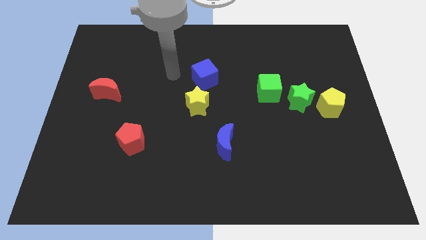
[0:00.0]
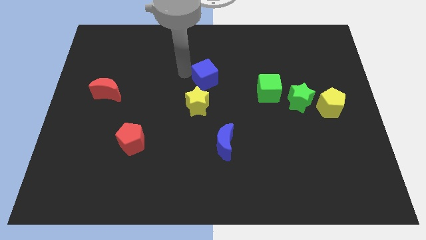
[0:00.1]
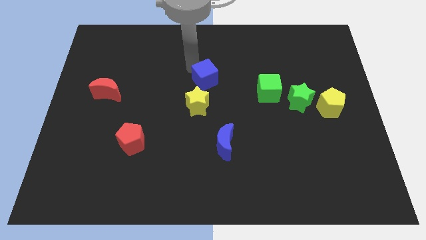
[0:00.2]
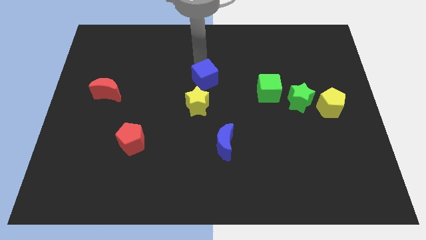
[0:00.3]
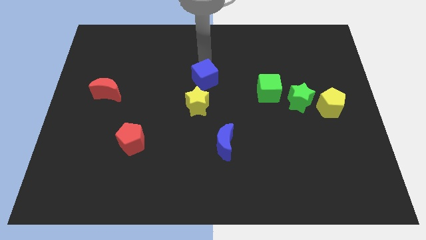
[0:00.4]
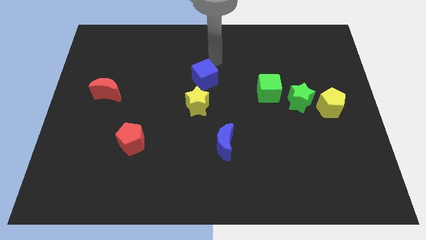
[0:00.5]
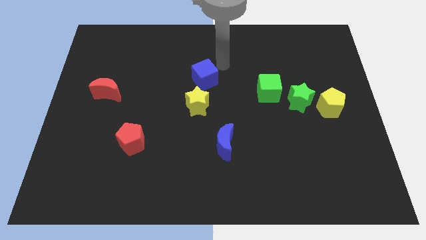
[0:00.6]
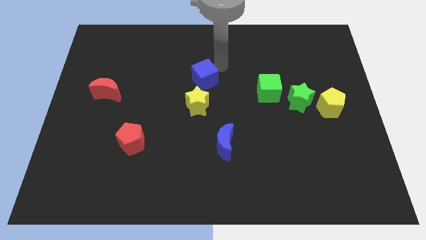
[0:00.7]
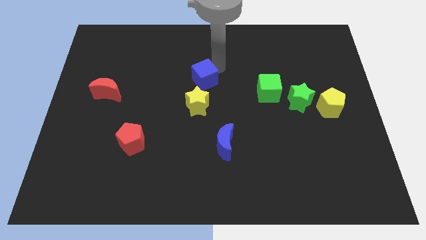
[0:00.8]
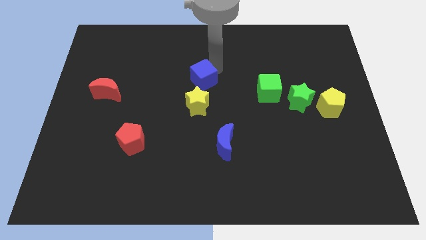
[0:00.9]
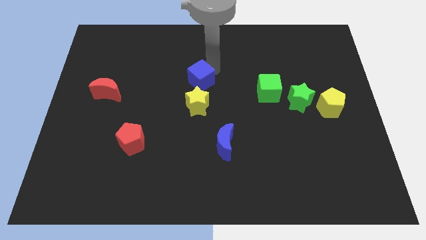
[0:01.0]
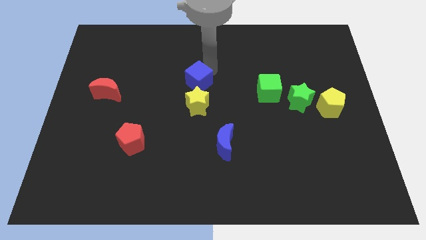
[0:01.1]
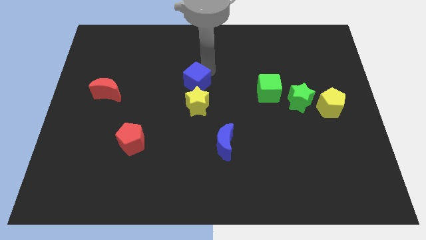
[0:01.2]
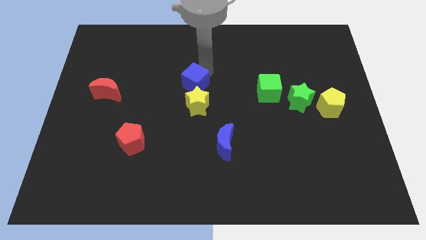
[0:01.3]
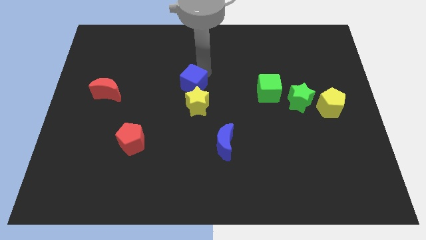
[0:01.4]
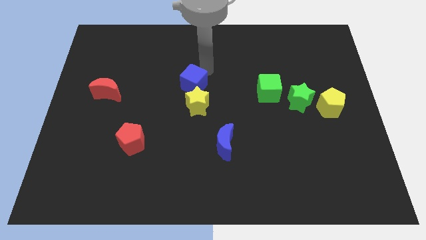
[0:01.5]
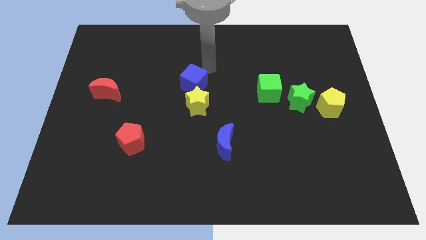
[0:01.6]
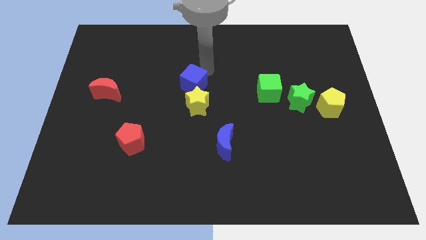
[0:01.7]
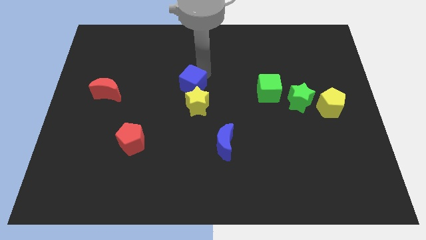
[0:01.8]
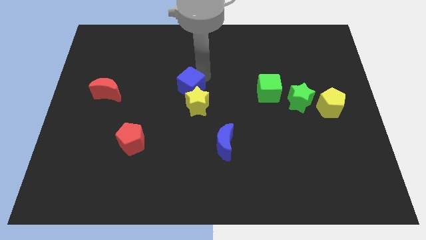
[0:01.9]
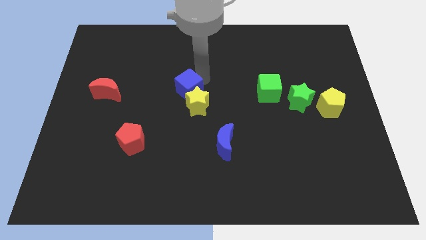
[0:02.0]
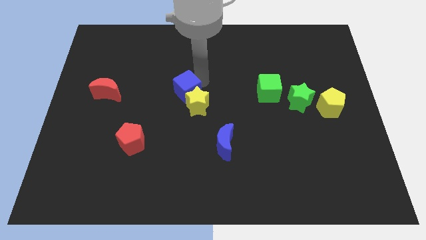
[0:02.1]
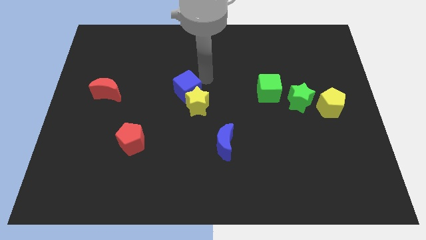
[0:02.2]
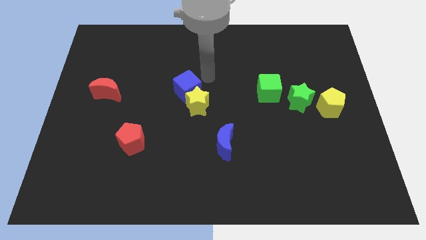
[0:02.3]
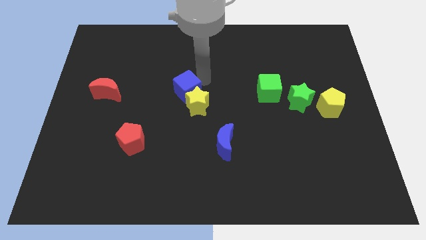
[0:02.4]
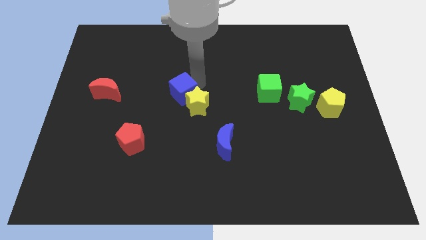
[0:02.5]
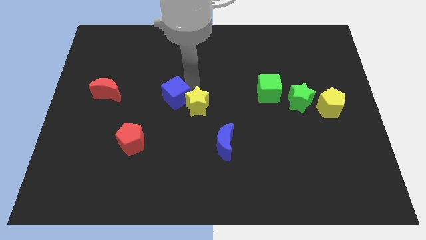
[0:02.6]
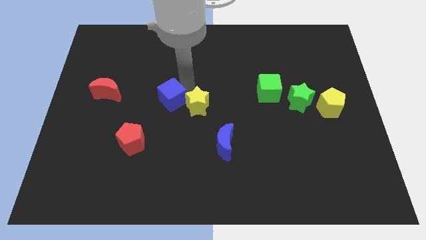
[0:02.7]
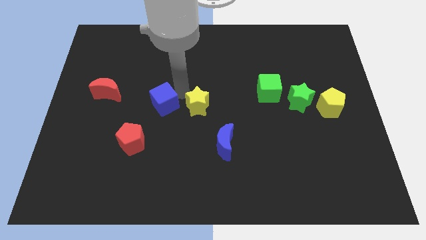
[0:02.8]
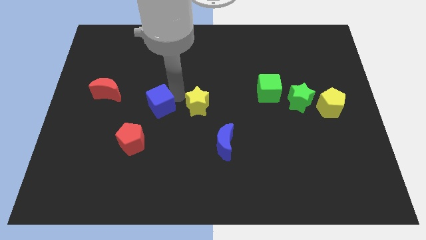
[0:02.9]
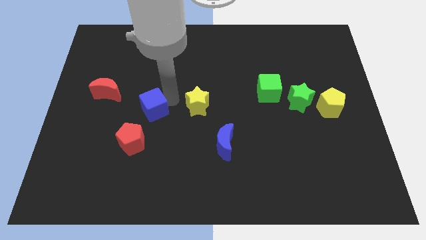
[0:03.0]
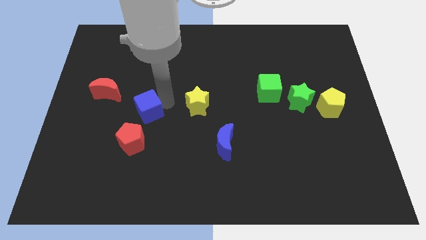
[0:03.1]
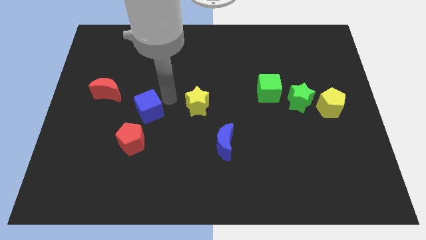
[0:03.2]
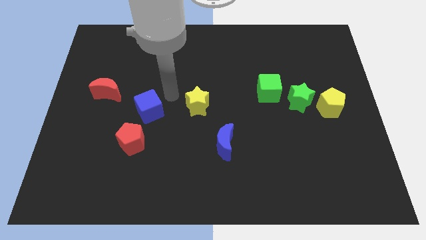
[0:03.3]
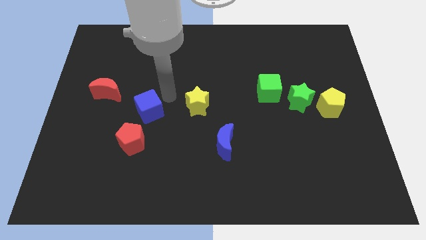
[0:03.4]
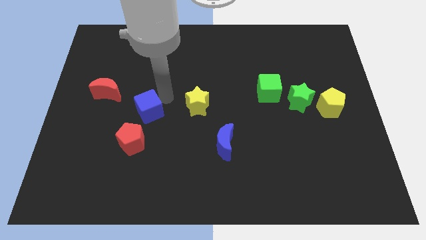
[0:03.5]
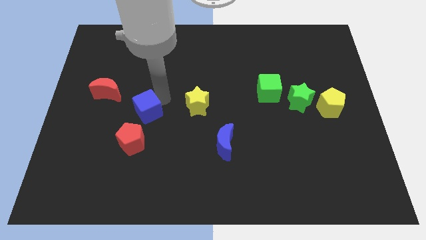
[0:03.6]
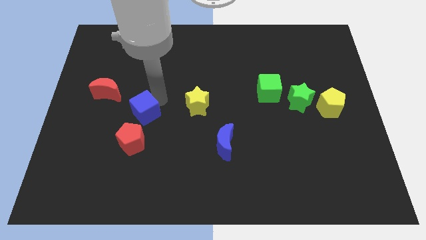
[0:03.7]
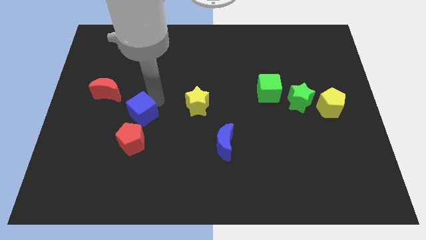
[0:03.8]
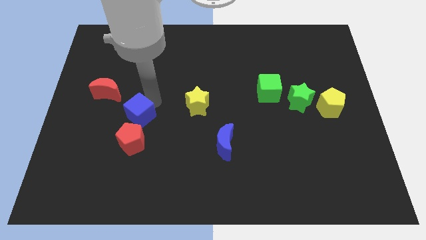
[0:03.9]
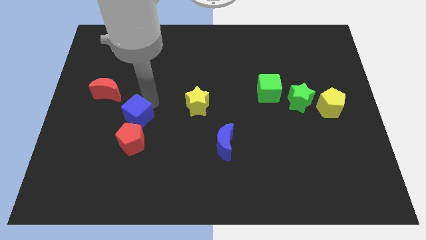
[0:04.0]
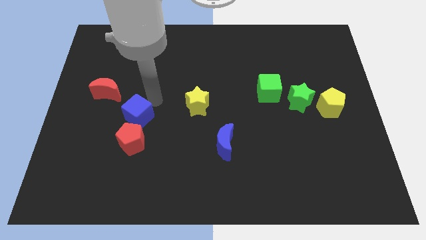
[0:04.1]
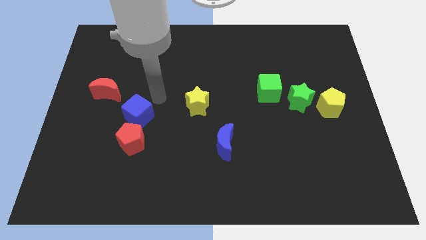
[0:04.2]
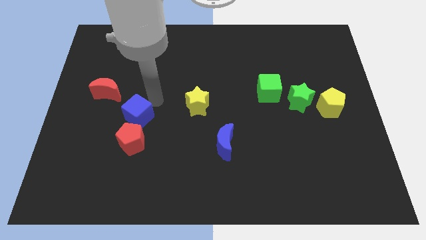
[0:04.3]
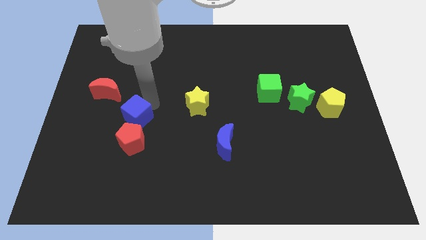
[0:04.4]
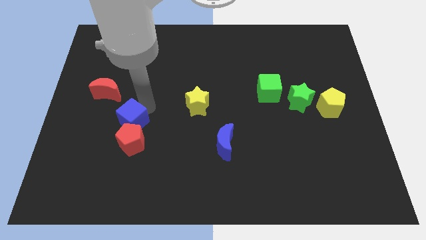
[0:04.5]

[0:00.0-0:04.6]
push the blue cube down and left

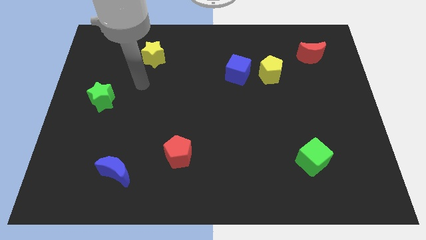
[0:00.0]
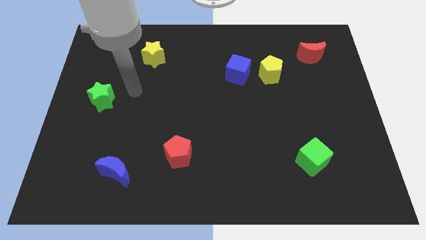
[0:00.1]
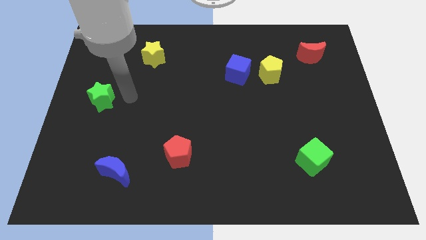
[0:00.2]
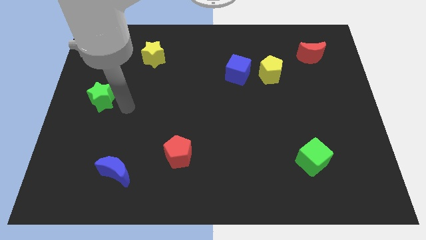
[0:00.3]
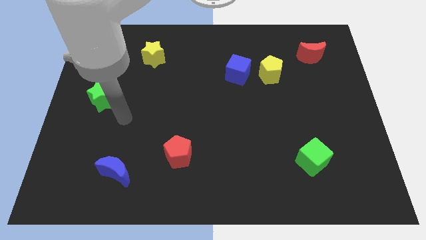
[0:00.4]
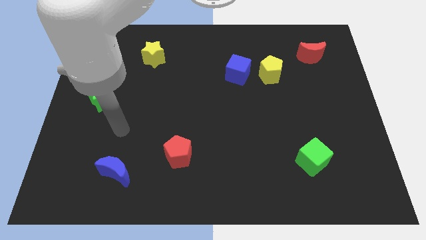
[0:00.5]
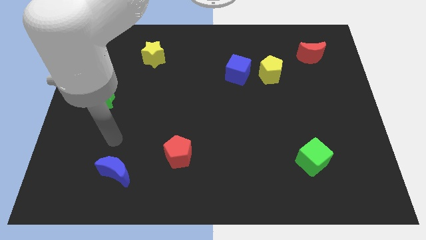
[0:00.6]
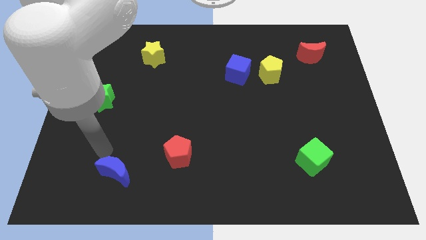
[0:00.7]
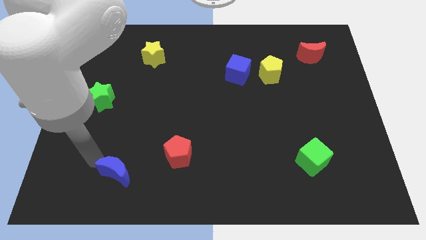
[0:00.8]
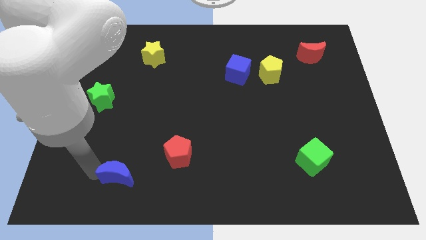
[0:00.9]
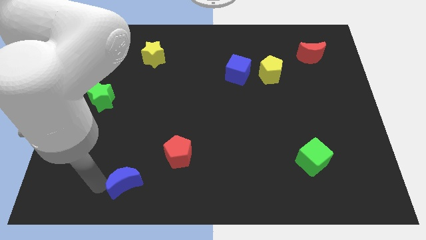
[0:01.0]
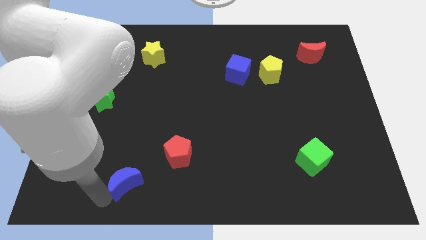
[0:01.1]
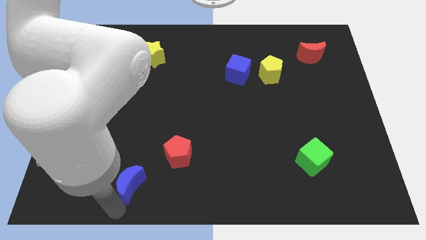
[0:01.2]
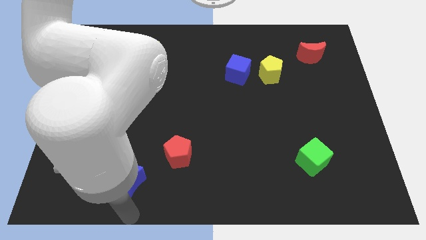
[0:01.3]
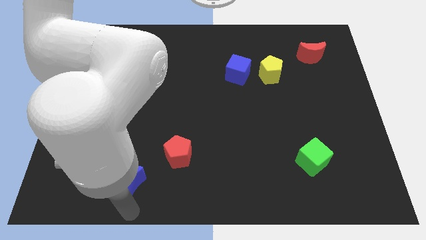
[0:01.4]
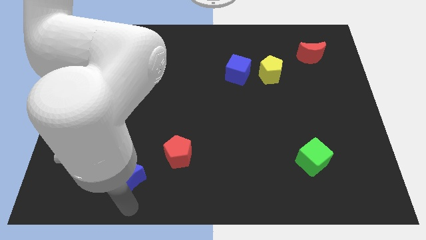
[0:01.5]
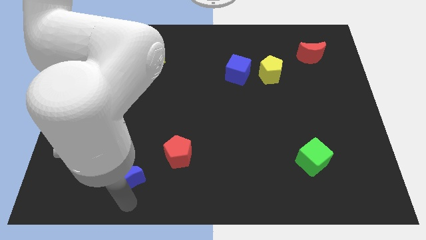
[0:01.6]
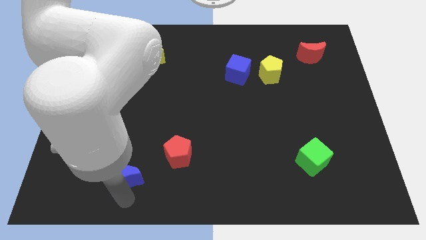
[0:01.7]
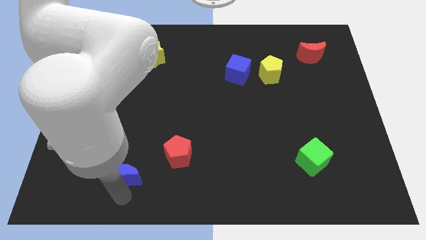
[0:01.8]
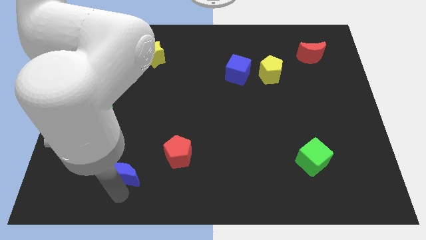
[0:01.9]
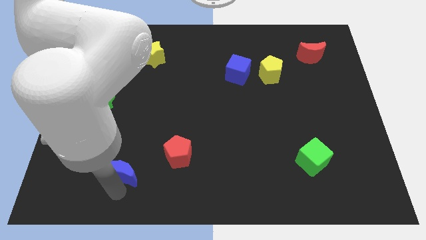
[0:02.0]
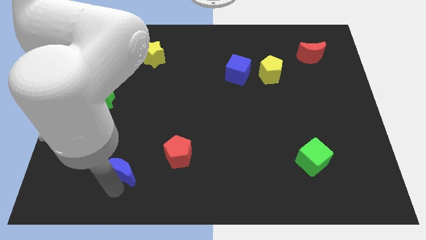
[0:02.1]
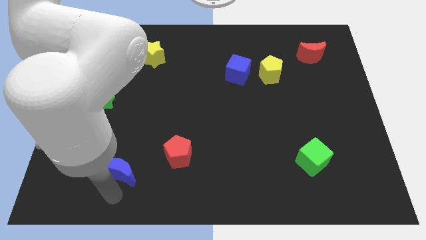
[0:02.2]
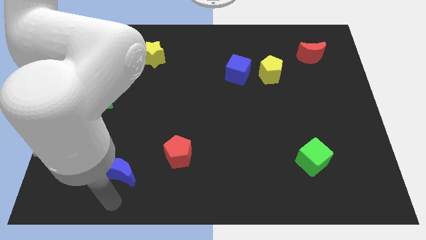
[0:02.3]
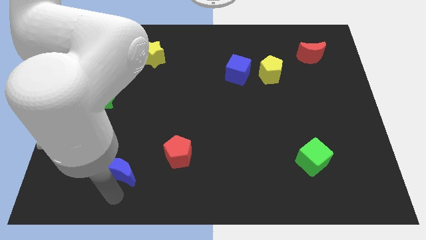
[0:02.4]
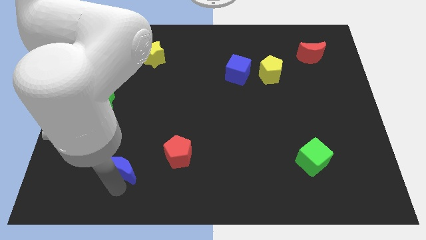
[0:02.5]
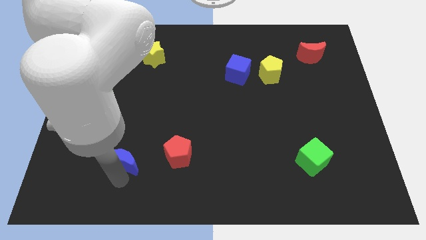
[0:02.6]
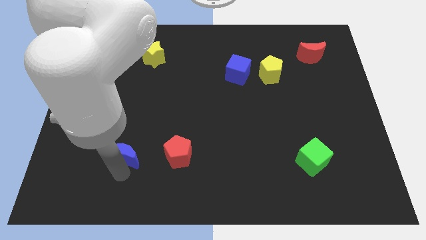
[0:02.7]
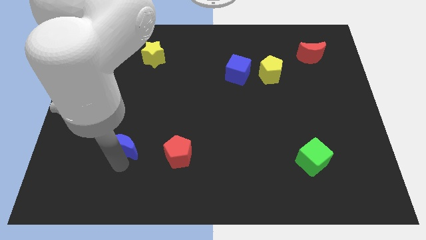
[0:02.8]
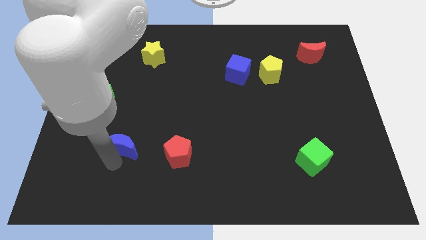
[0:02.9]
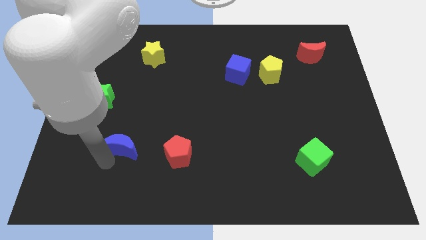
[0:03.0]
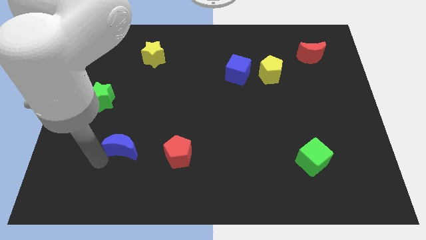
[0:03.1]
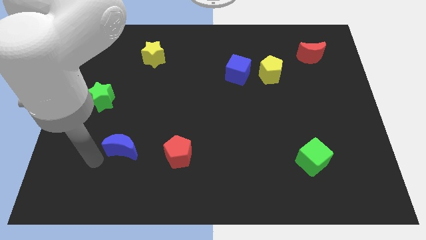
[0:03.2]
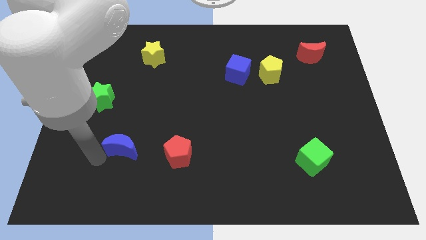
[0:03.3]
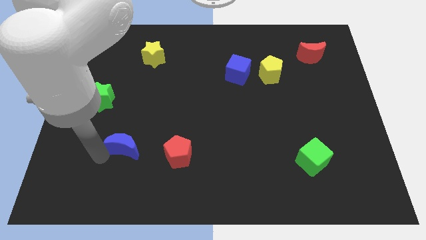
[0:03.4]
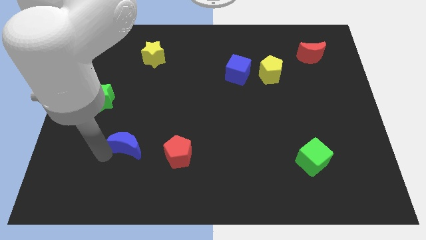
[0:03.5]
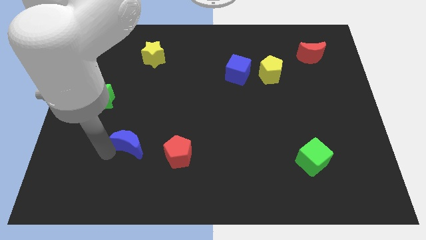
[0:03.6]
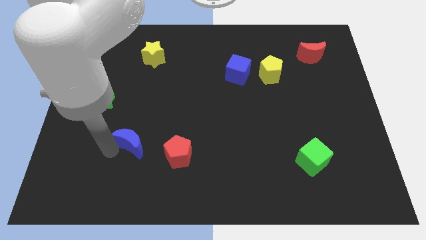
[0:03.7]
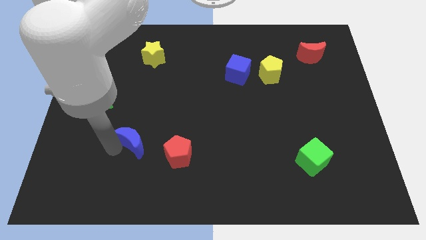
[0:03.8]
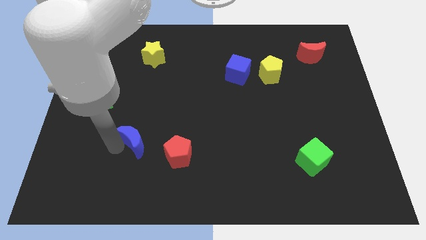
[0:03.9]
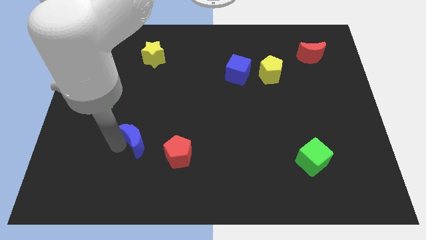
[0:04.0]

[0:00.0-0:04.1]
push the blue moon slightly up and right diagonally
